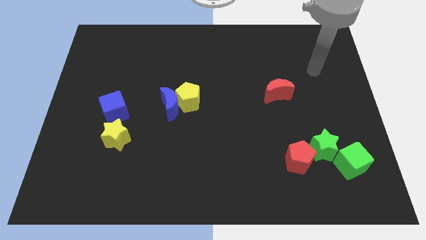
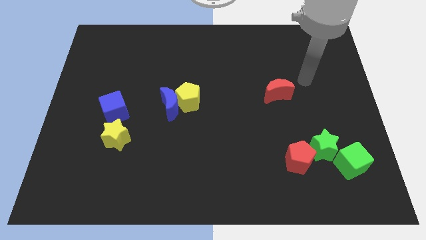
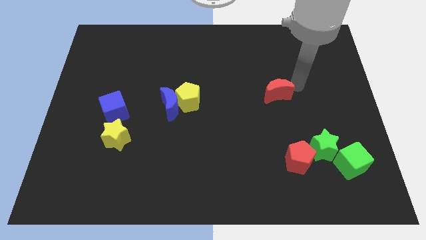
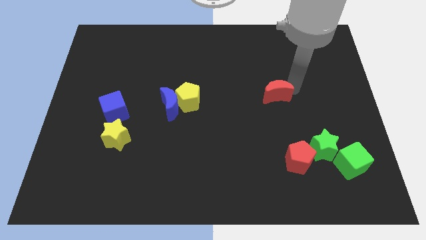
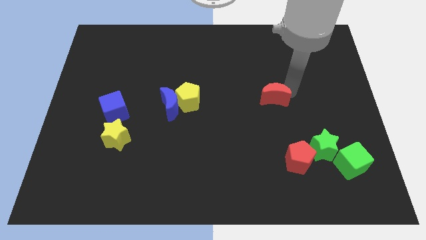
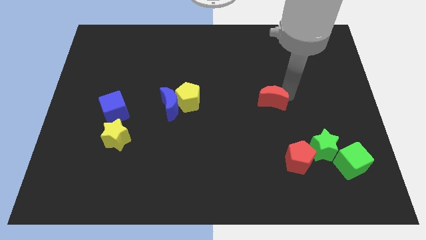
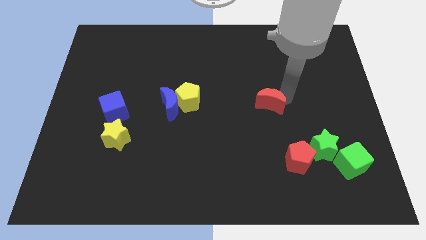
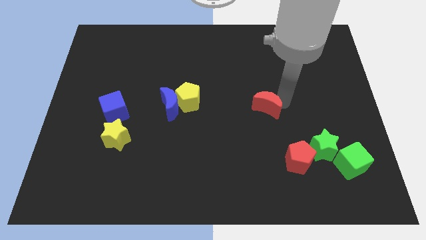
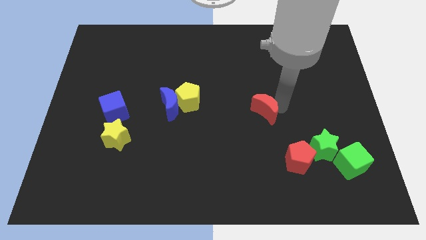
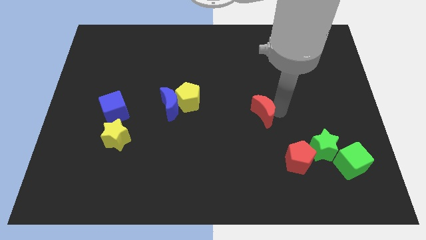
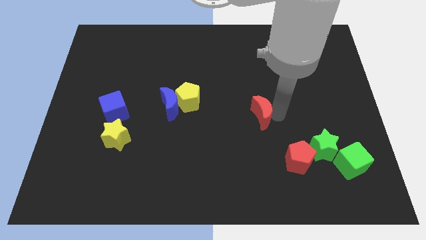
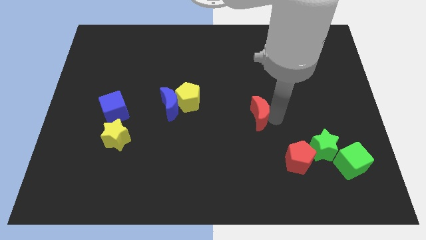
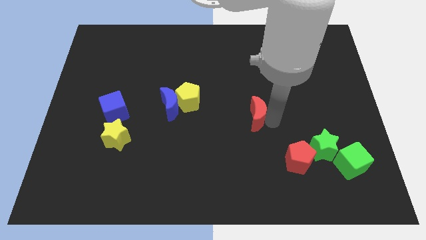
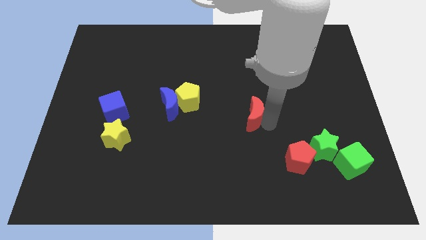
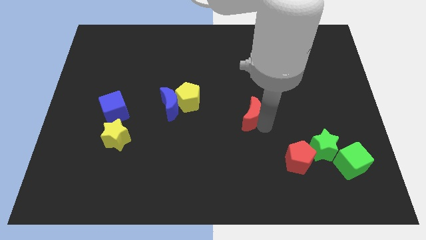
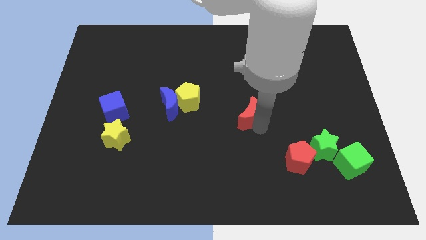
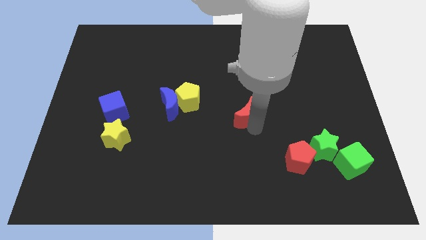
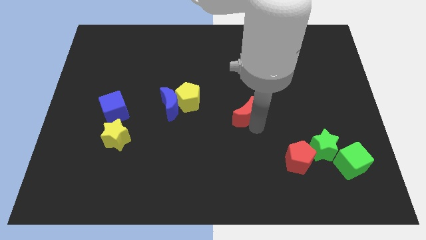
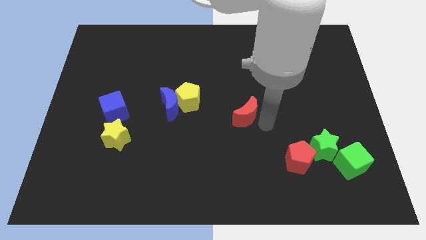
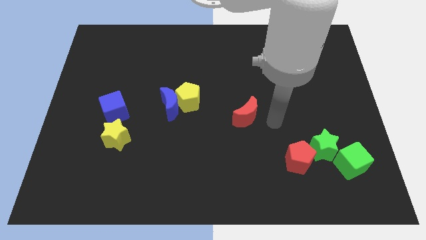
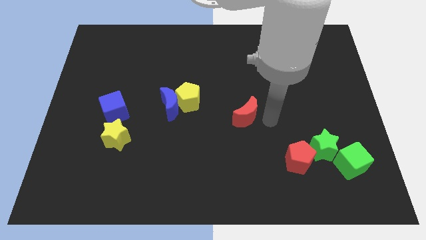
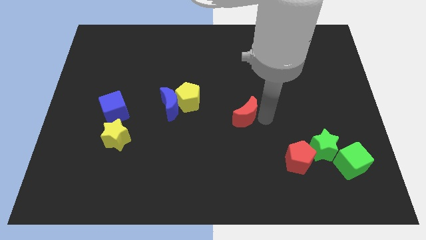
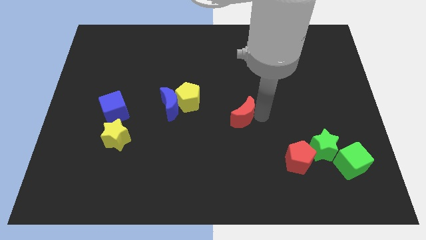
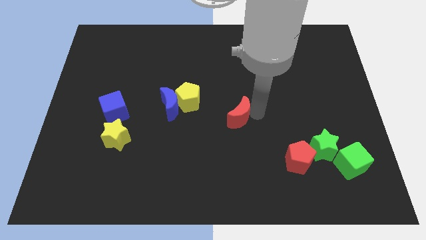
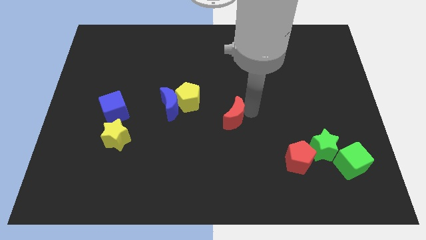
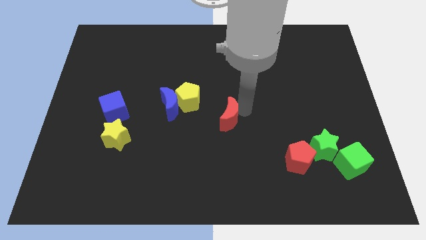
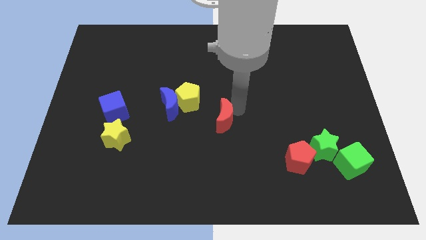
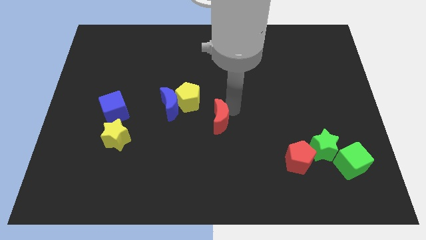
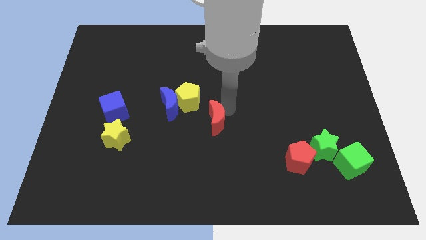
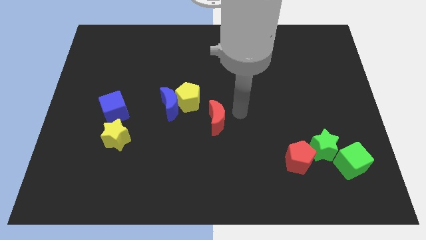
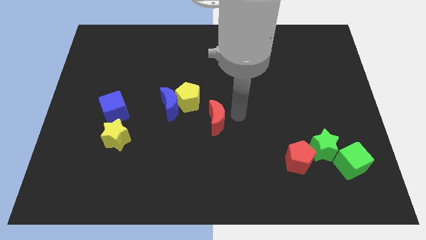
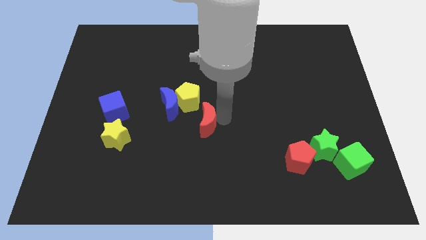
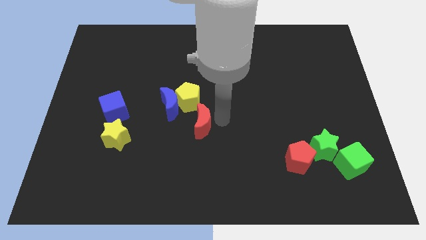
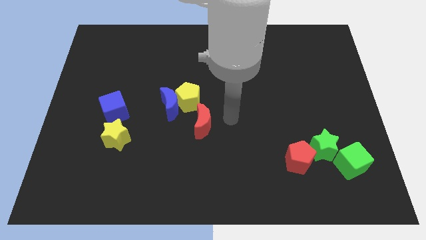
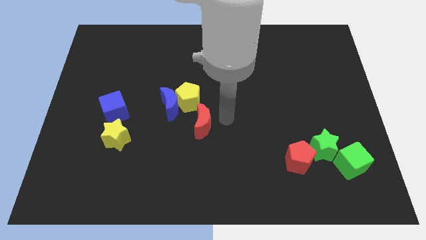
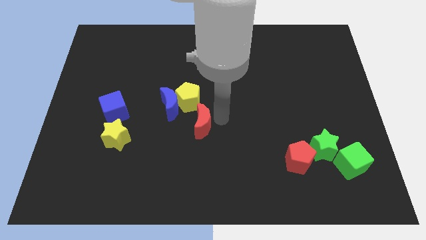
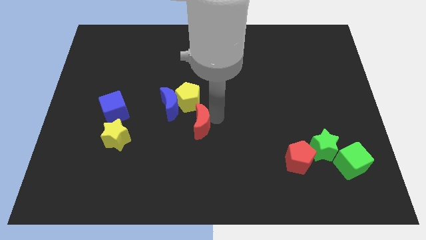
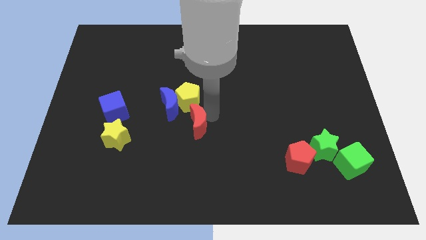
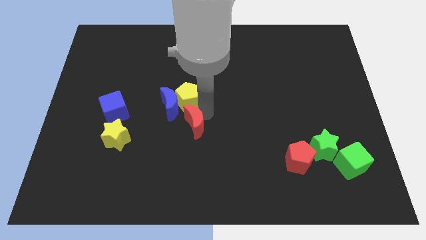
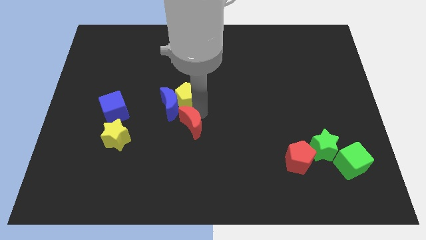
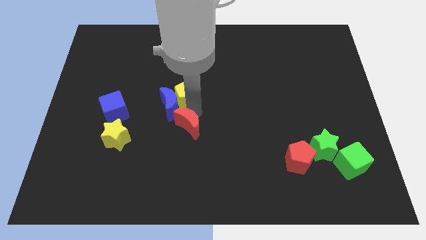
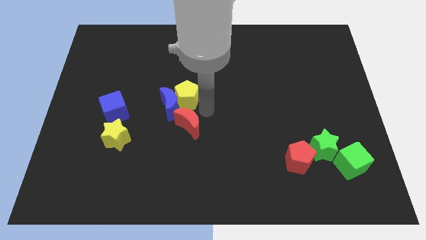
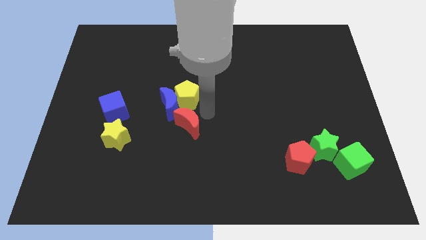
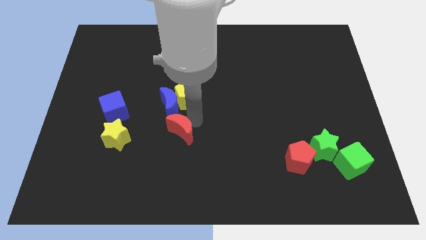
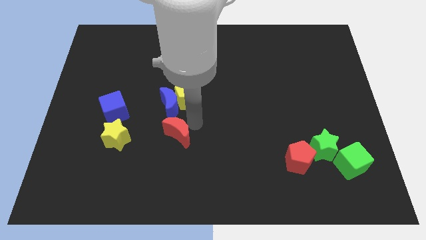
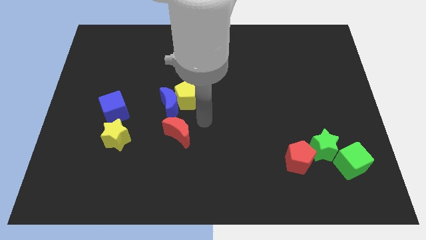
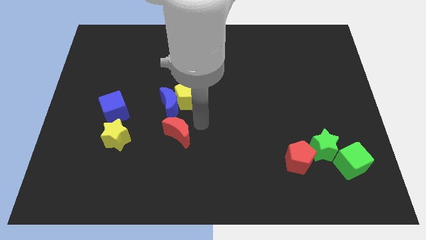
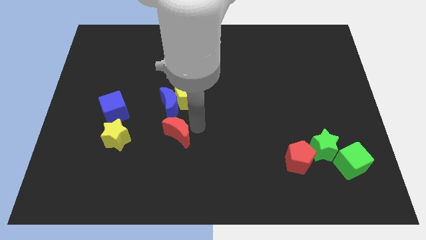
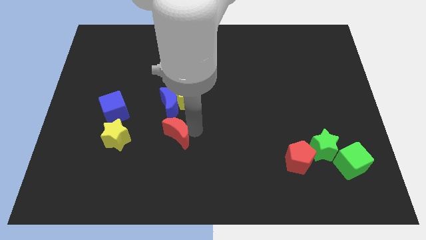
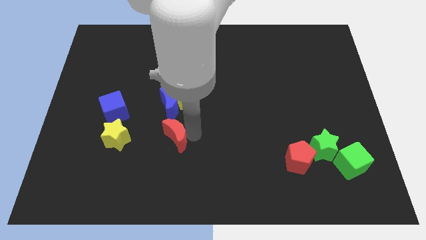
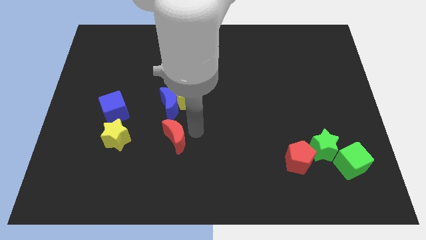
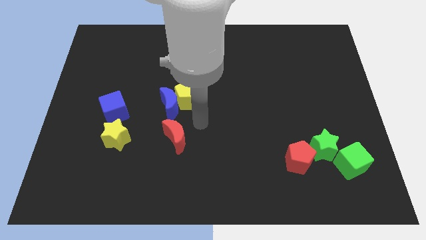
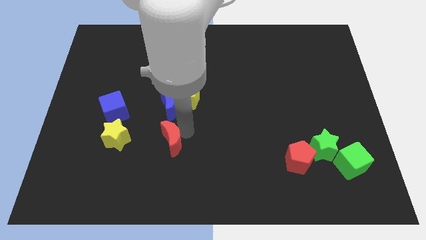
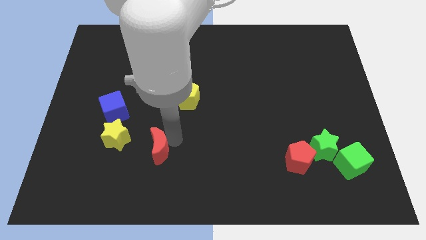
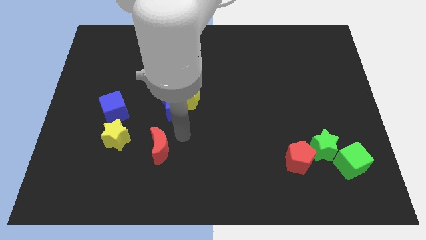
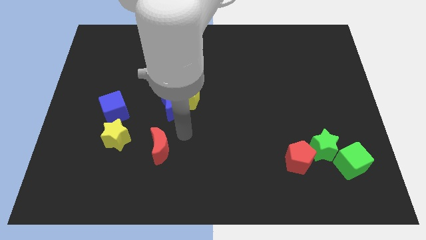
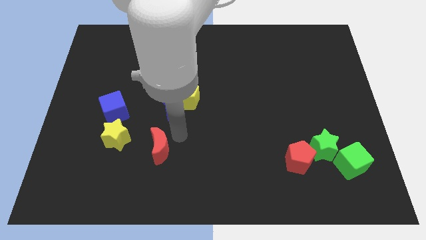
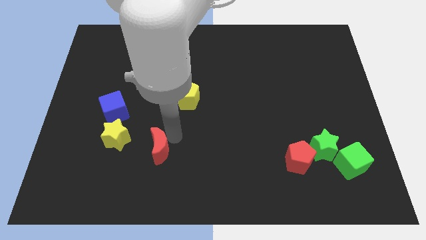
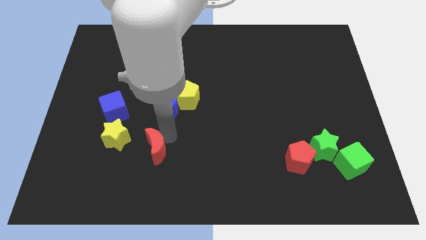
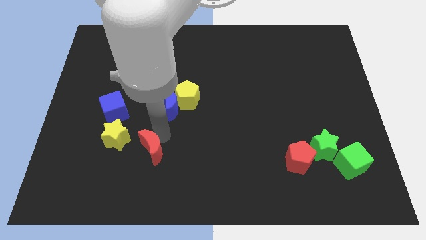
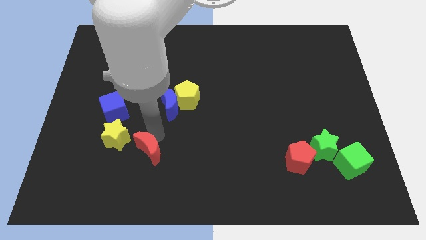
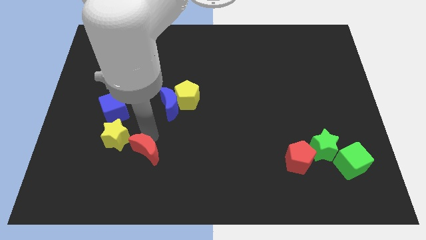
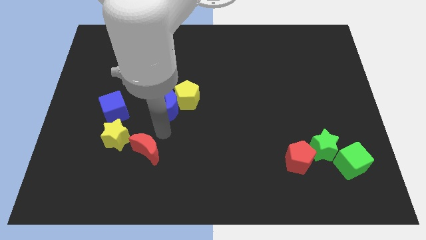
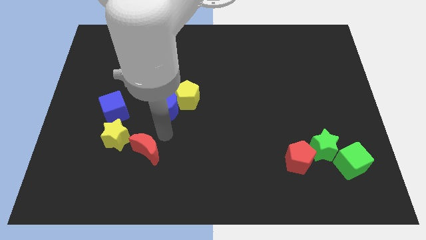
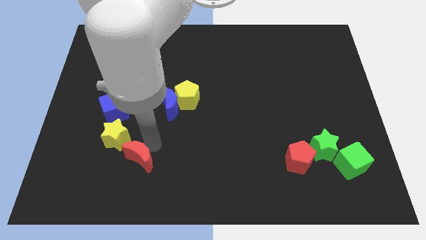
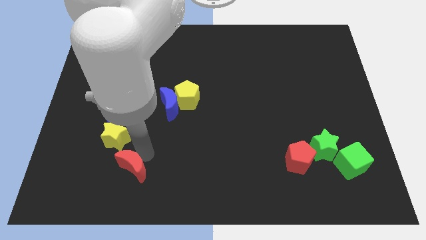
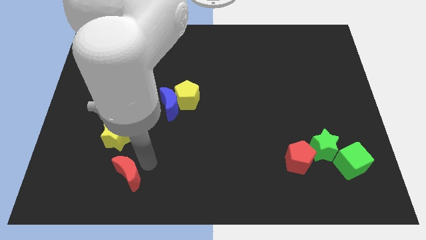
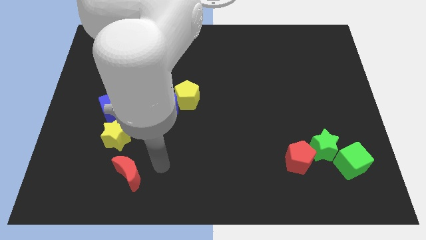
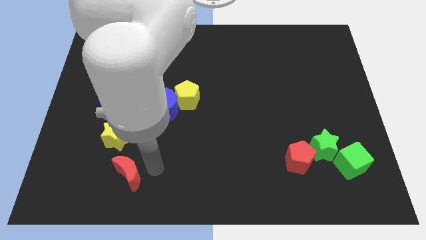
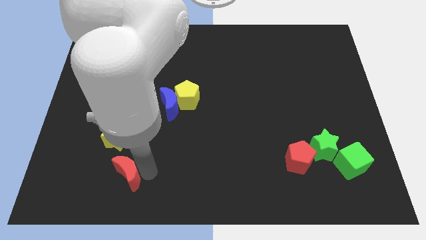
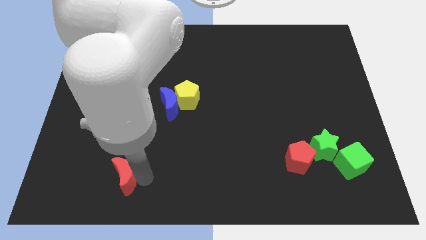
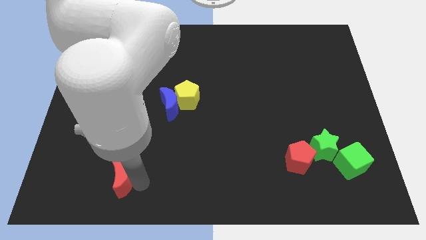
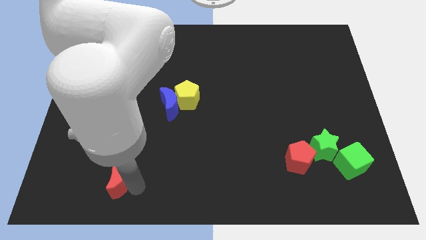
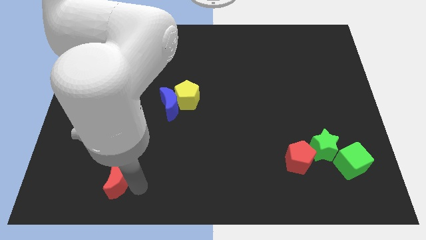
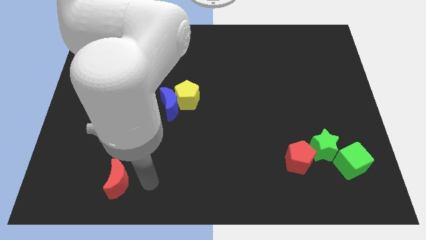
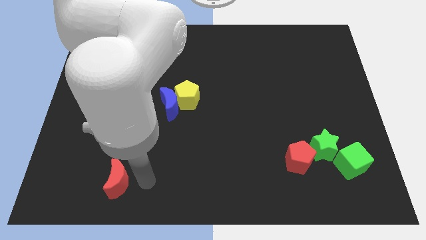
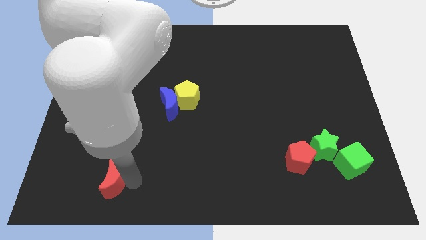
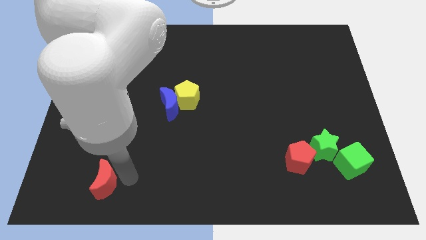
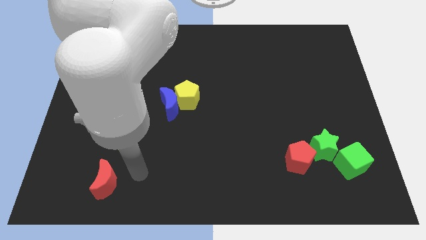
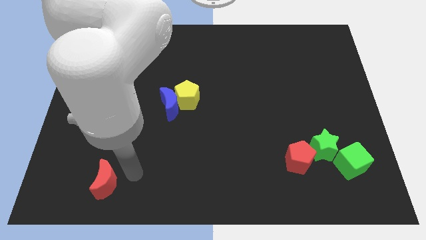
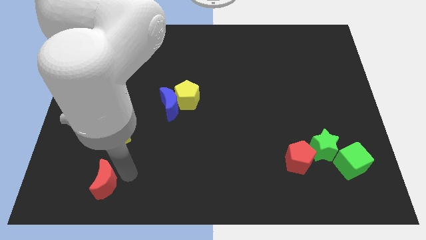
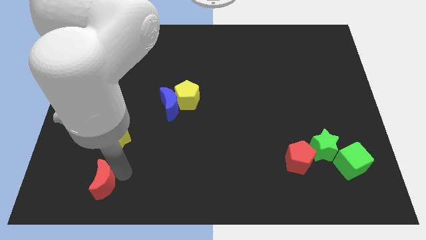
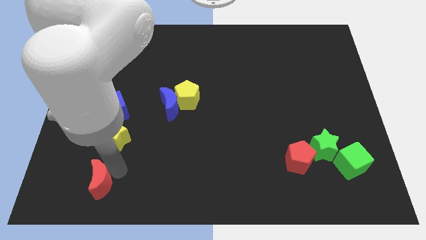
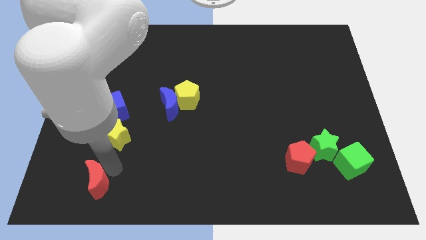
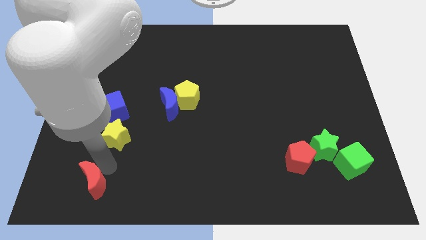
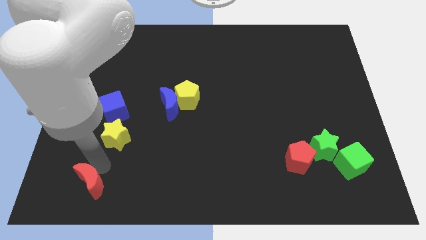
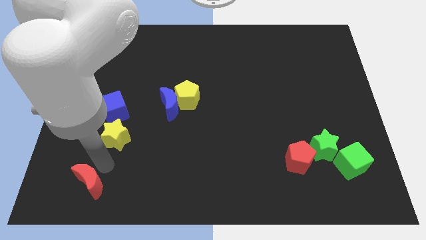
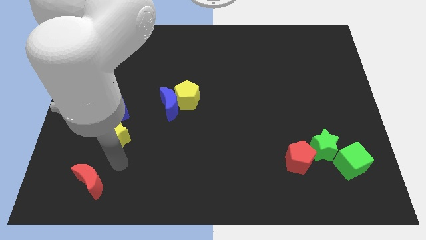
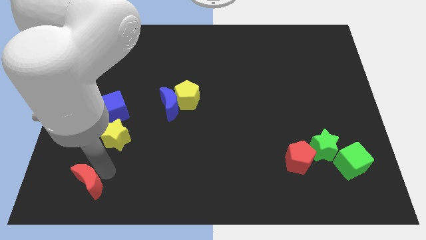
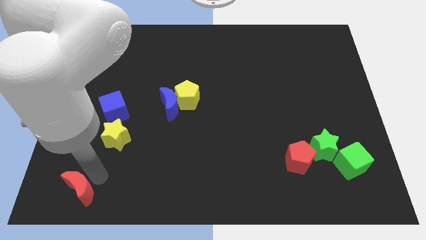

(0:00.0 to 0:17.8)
put the red moon to the bottom left corner
